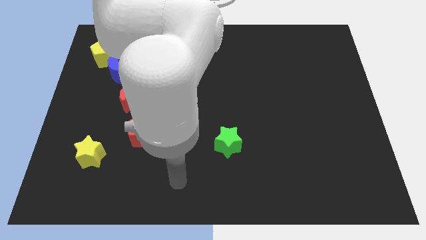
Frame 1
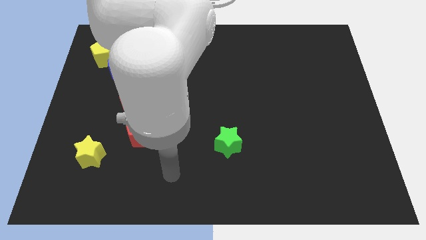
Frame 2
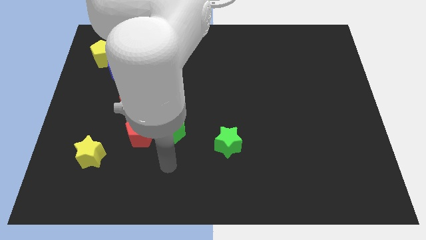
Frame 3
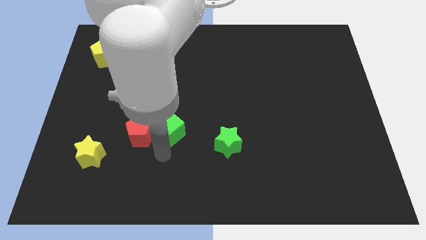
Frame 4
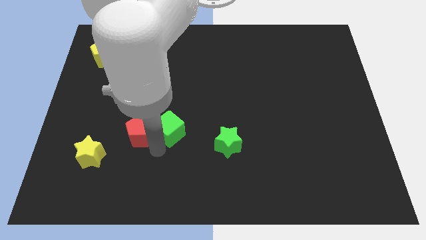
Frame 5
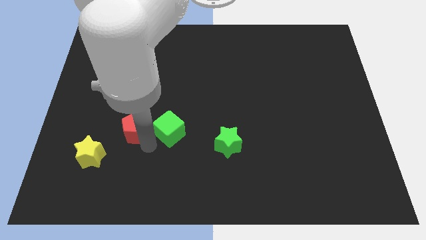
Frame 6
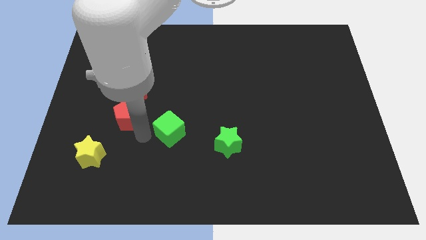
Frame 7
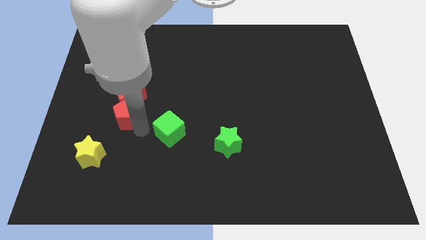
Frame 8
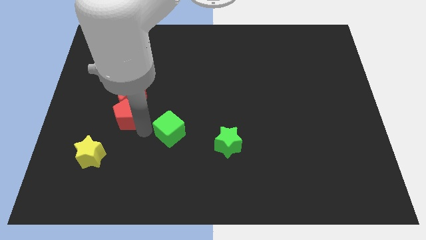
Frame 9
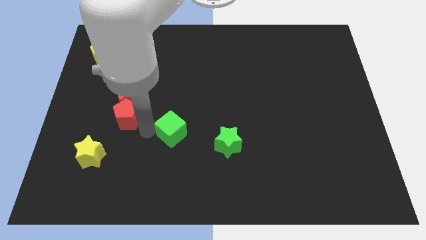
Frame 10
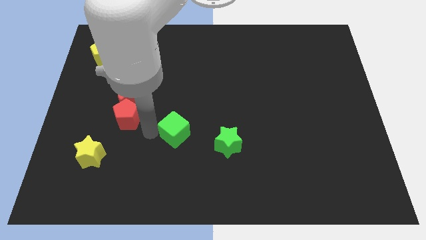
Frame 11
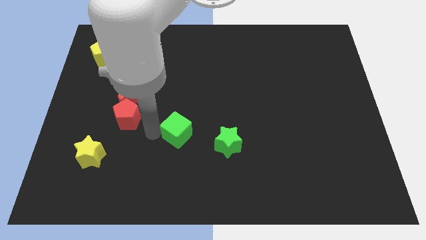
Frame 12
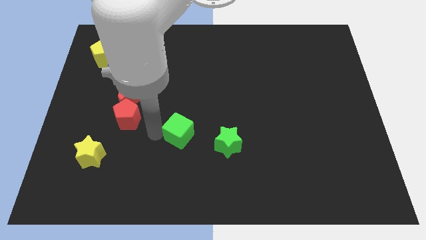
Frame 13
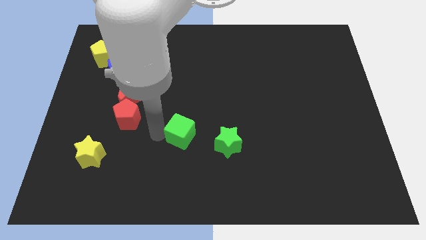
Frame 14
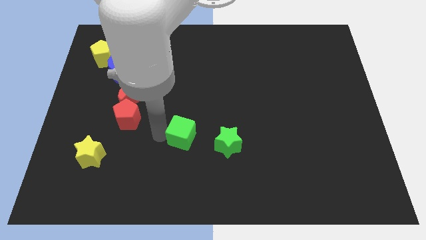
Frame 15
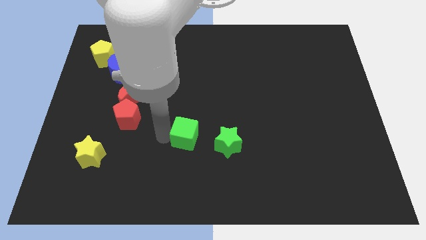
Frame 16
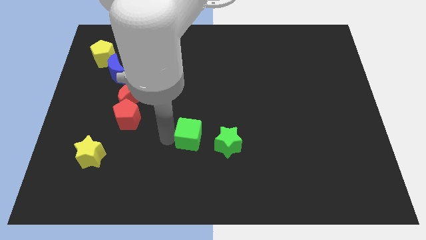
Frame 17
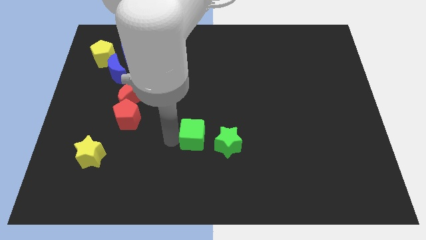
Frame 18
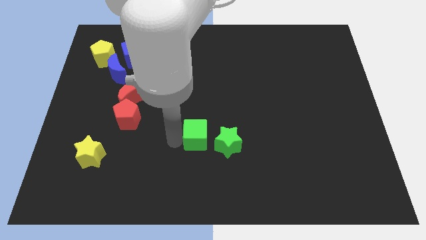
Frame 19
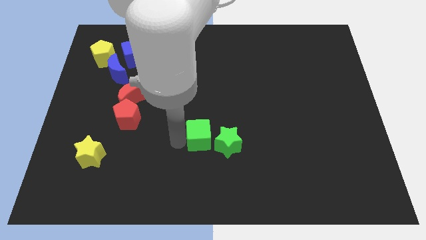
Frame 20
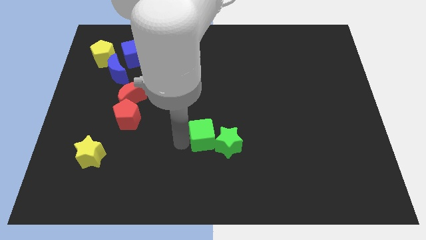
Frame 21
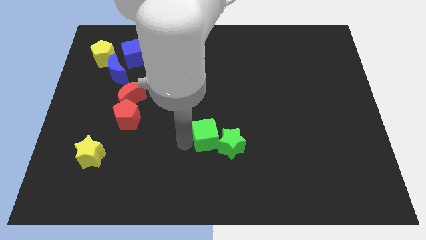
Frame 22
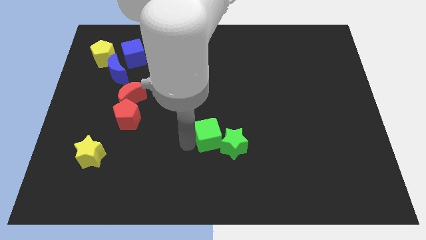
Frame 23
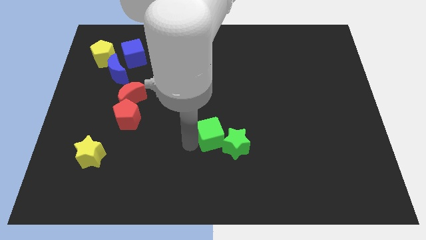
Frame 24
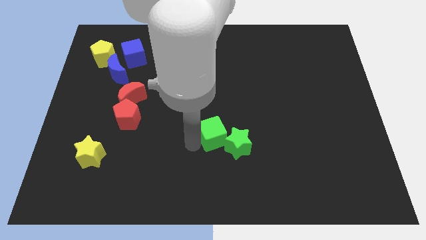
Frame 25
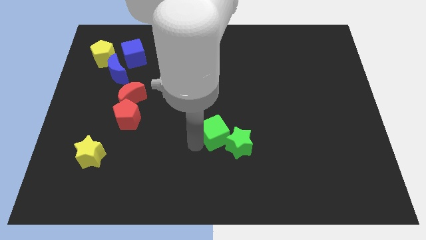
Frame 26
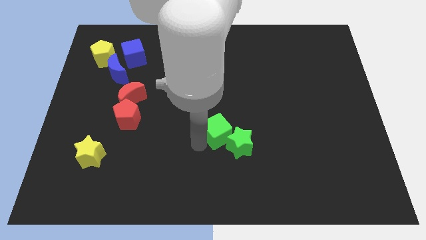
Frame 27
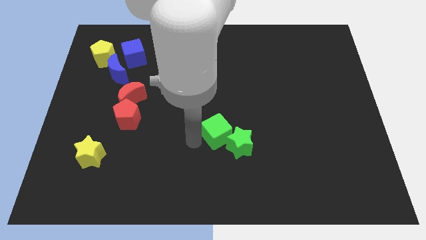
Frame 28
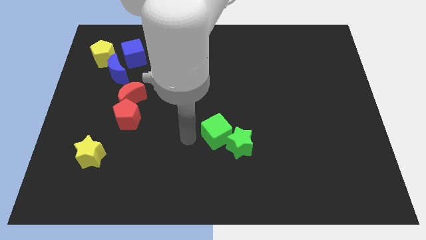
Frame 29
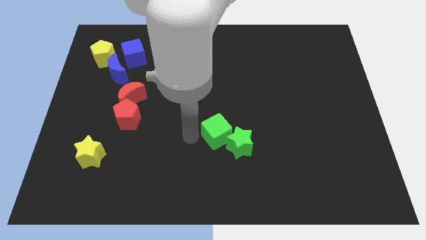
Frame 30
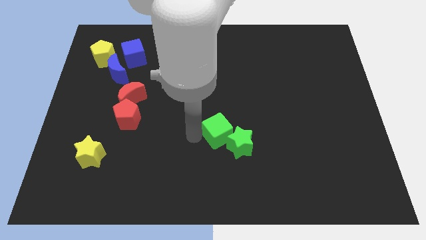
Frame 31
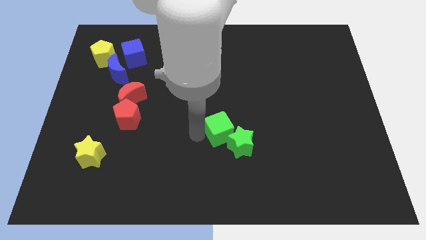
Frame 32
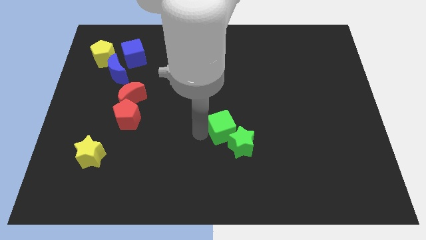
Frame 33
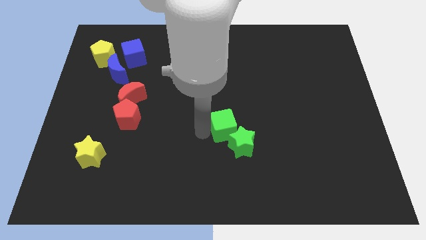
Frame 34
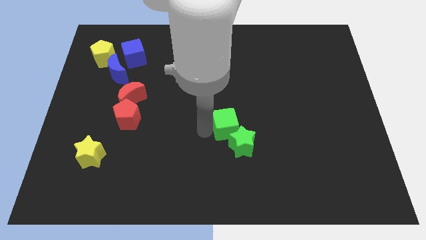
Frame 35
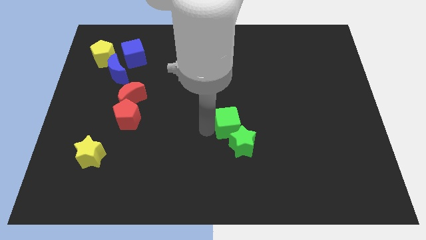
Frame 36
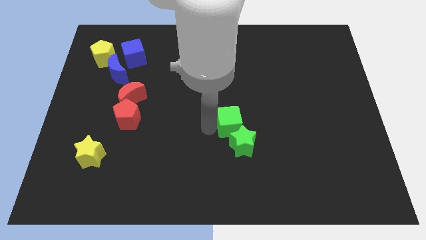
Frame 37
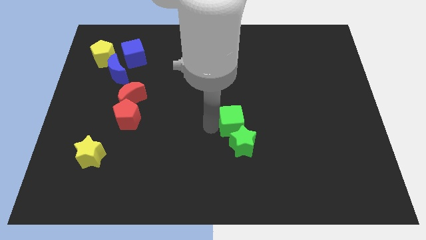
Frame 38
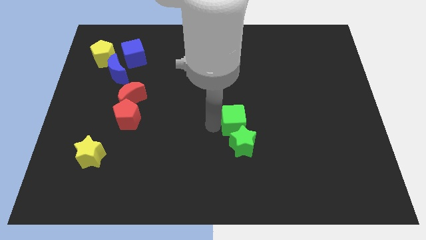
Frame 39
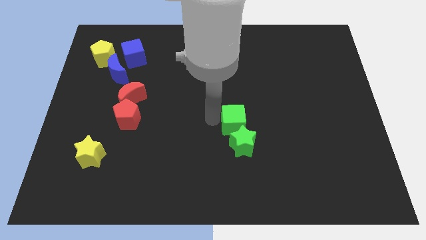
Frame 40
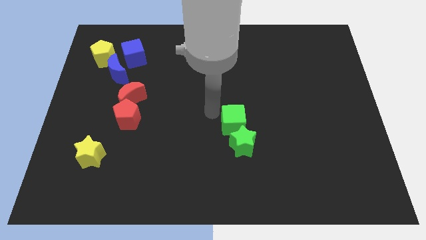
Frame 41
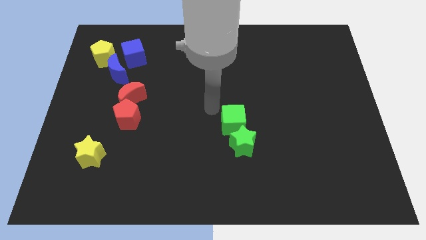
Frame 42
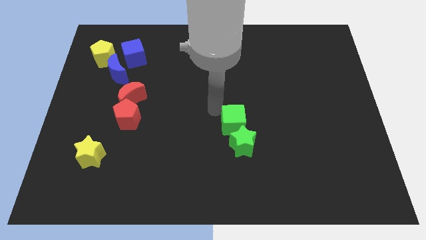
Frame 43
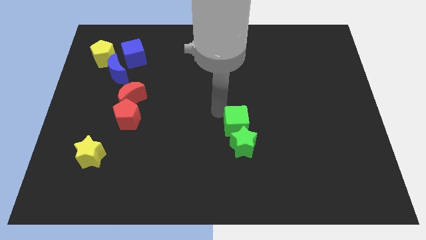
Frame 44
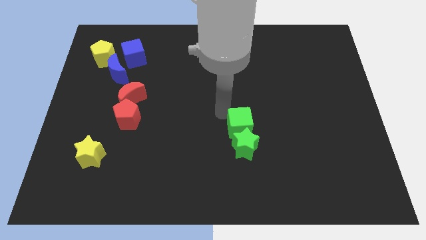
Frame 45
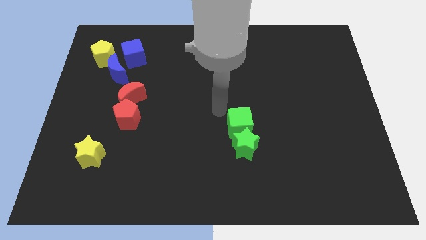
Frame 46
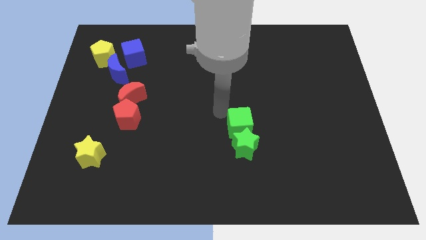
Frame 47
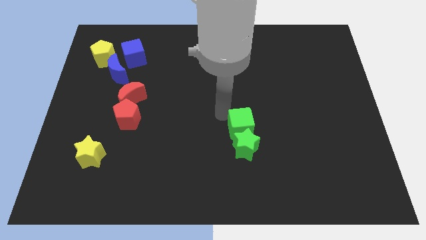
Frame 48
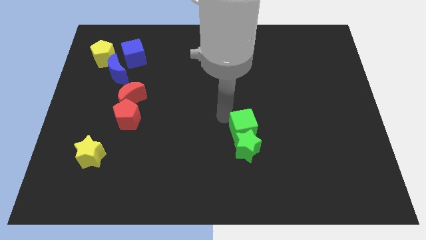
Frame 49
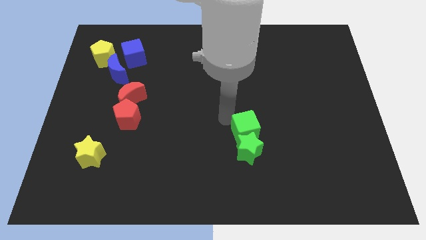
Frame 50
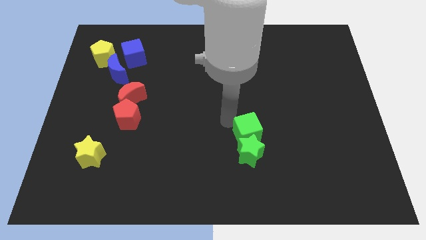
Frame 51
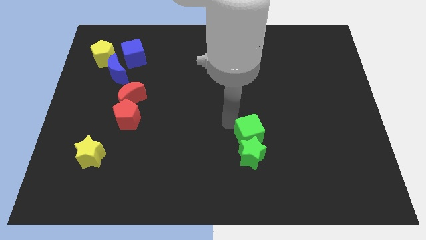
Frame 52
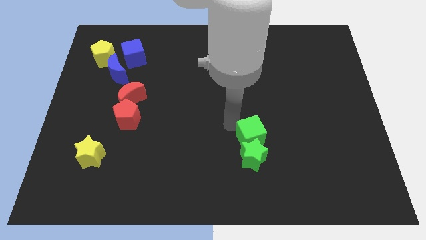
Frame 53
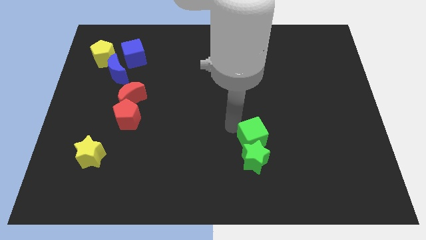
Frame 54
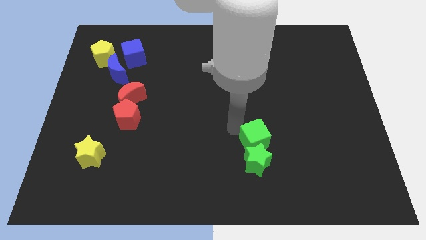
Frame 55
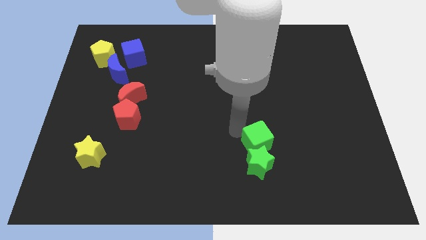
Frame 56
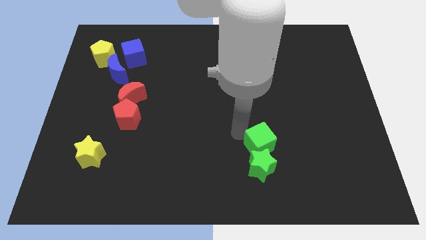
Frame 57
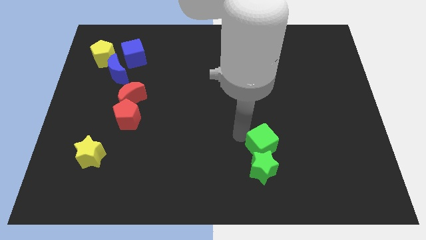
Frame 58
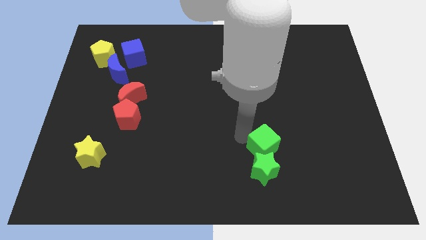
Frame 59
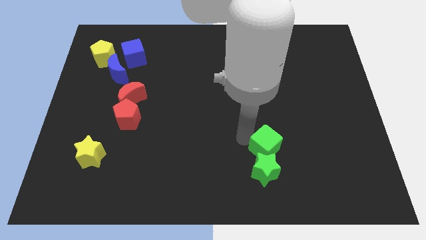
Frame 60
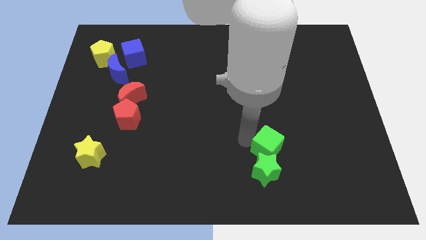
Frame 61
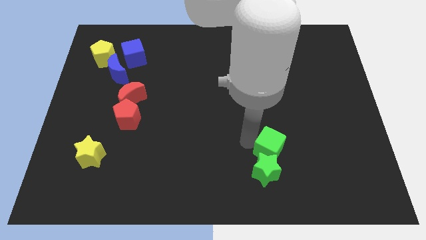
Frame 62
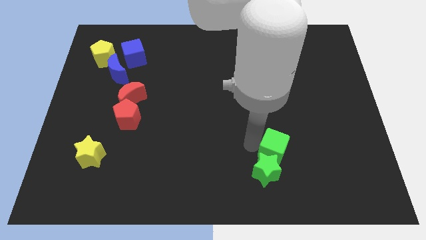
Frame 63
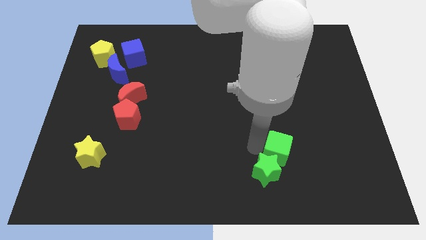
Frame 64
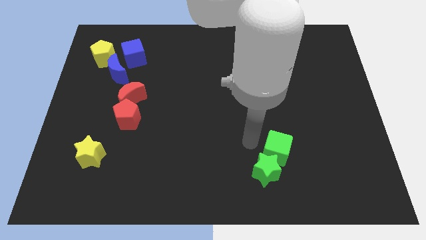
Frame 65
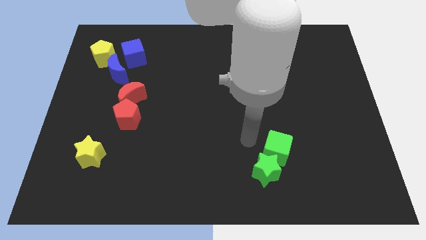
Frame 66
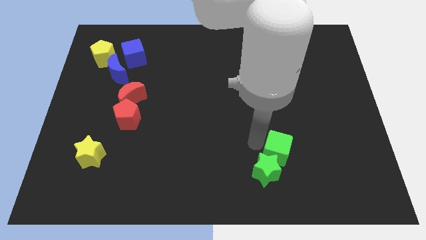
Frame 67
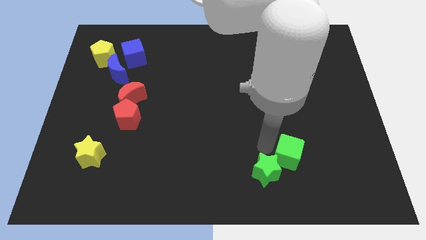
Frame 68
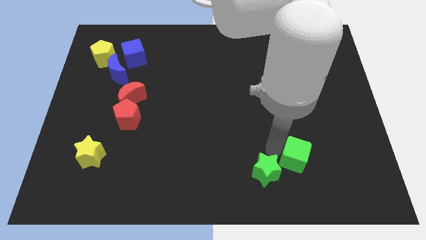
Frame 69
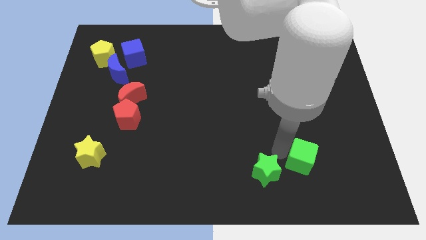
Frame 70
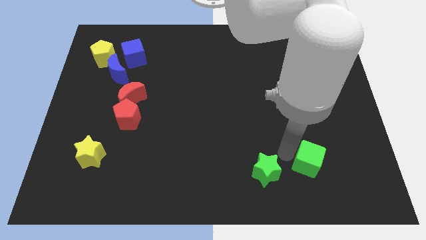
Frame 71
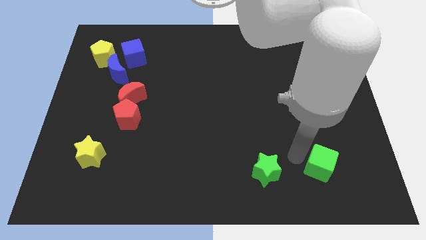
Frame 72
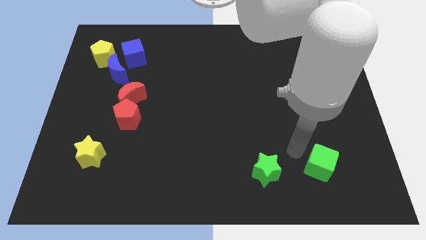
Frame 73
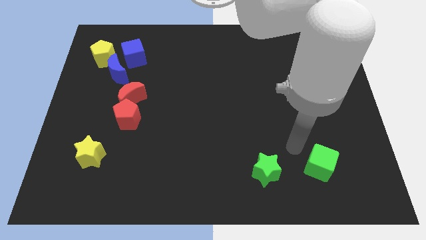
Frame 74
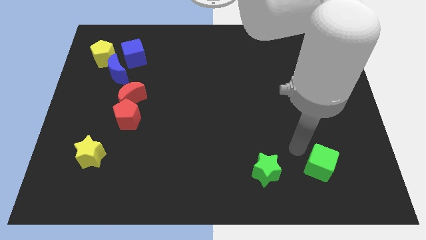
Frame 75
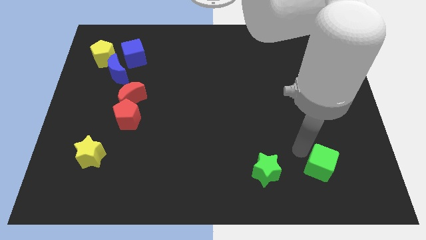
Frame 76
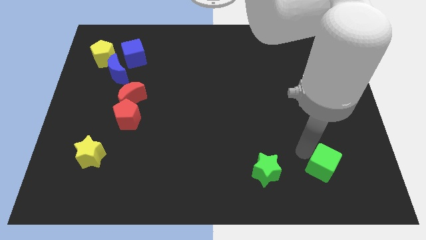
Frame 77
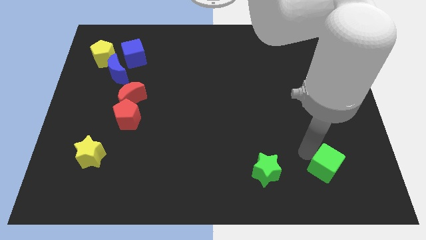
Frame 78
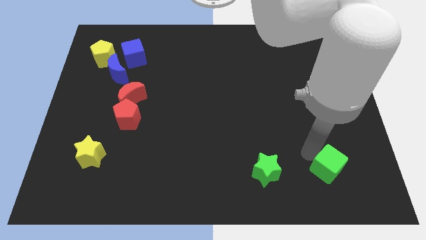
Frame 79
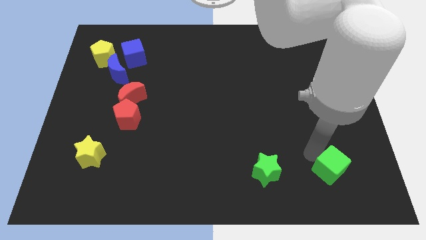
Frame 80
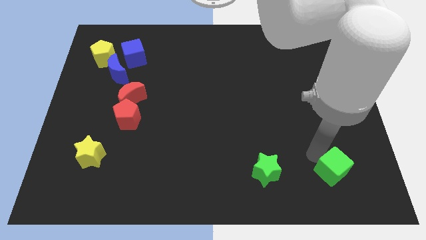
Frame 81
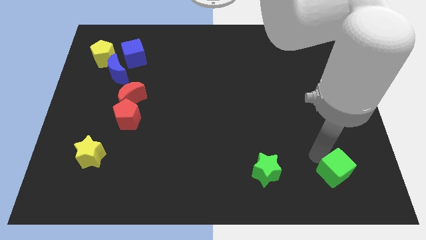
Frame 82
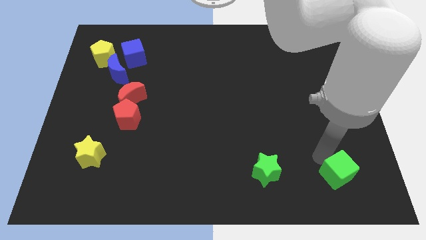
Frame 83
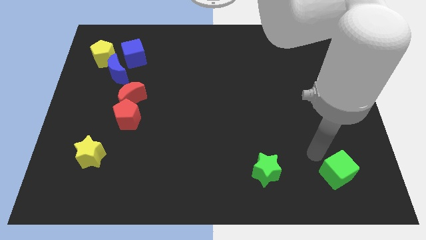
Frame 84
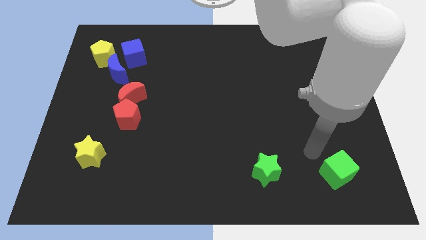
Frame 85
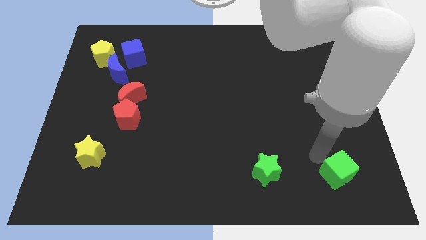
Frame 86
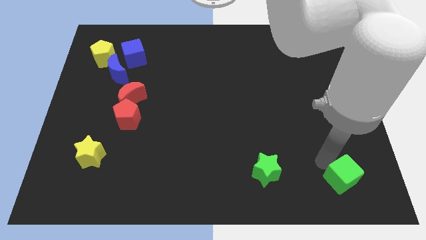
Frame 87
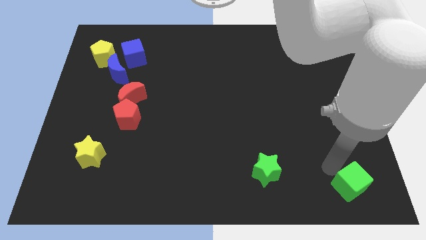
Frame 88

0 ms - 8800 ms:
slide the green cube to the bottom right
